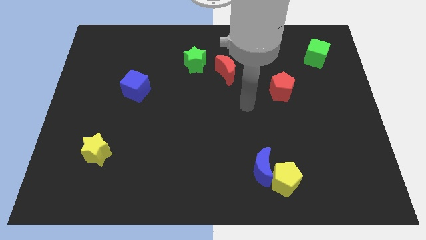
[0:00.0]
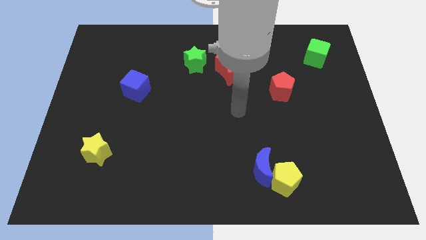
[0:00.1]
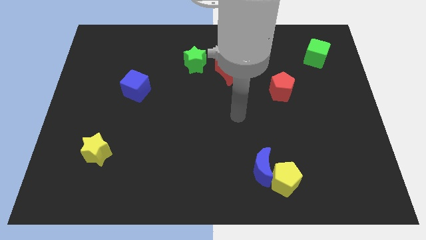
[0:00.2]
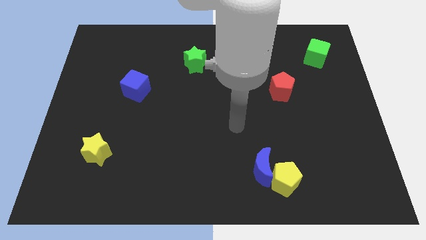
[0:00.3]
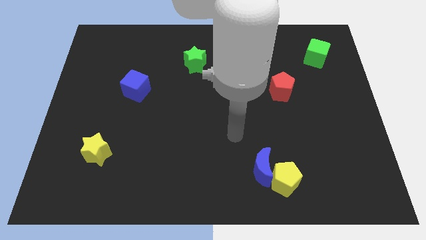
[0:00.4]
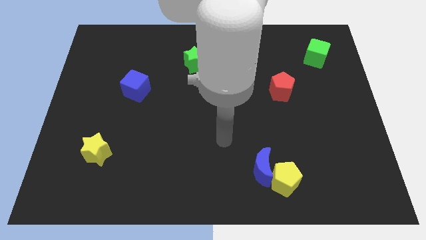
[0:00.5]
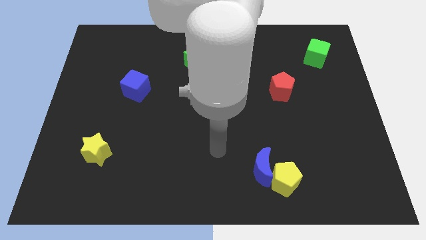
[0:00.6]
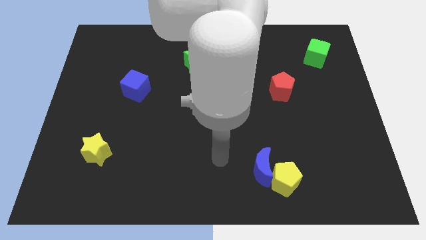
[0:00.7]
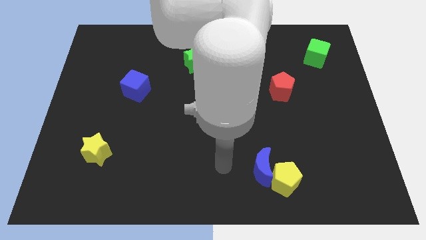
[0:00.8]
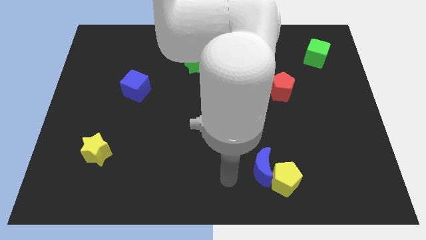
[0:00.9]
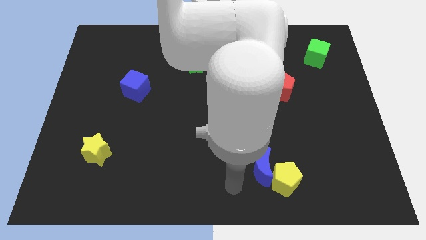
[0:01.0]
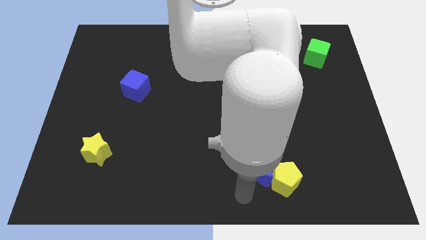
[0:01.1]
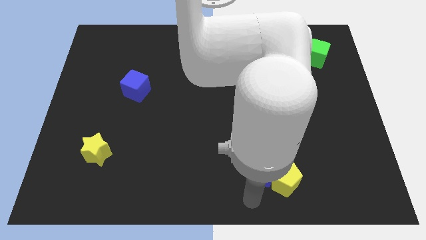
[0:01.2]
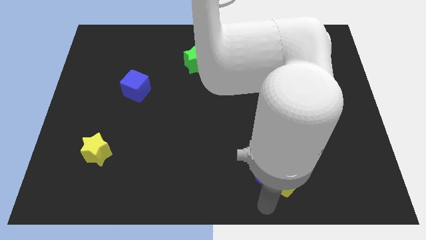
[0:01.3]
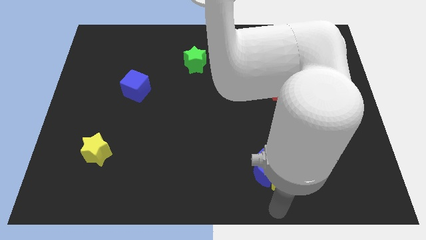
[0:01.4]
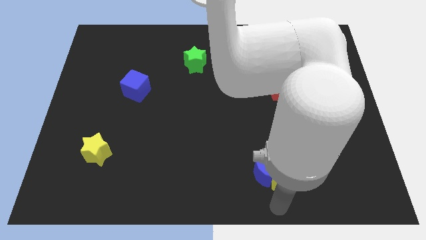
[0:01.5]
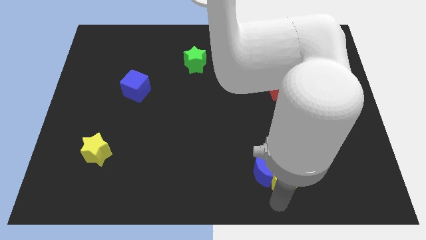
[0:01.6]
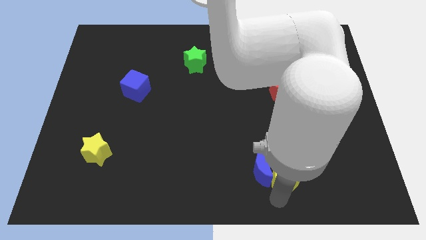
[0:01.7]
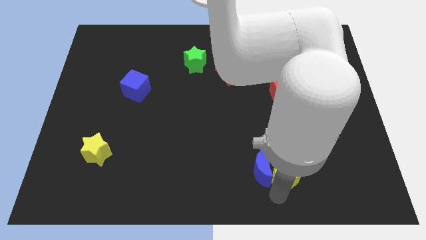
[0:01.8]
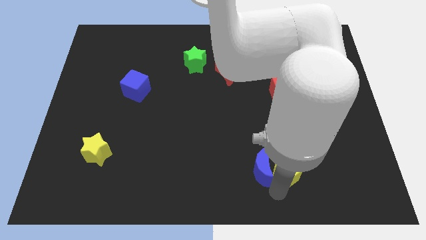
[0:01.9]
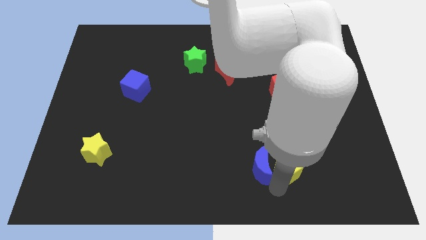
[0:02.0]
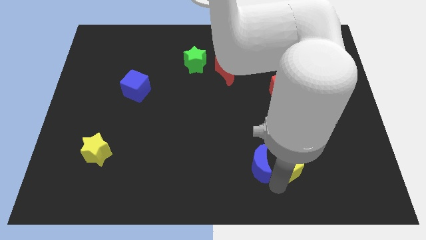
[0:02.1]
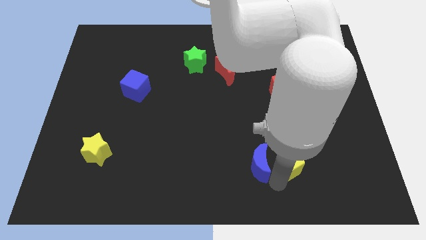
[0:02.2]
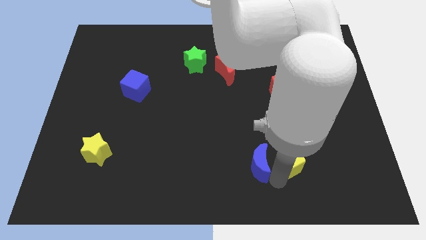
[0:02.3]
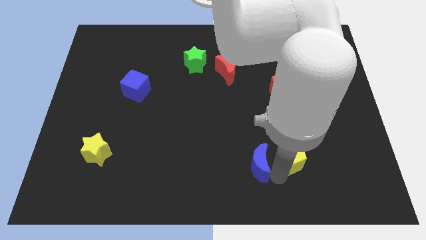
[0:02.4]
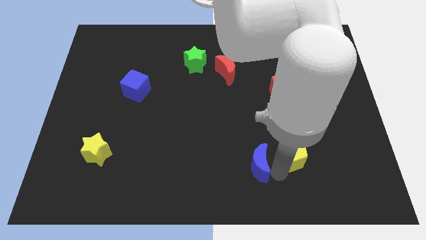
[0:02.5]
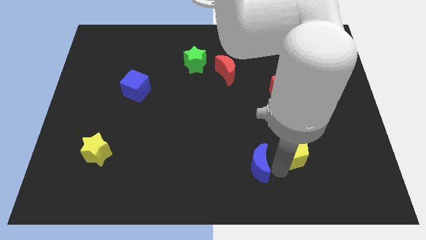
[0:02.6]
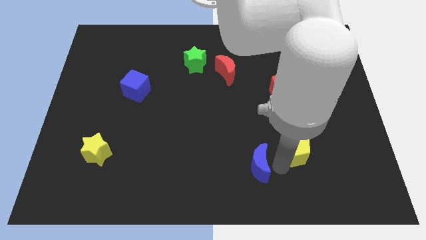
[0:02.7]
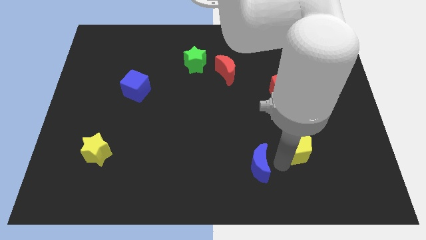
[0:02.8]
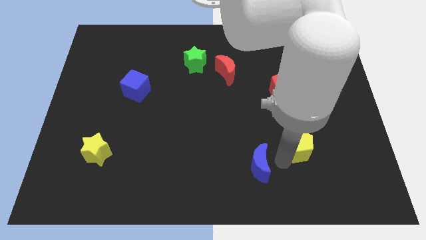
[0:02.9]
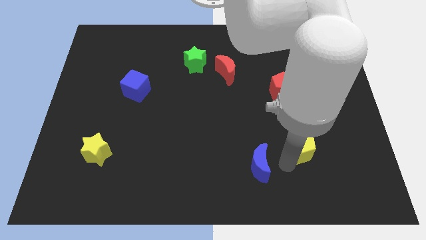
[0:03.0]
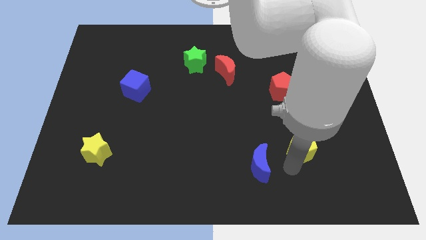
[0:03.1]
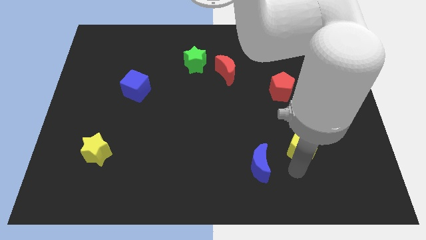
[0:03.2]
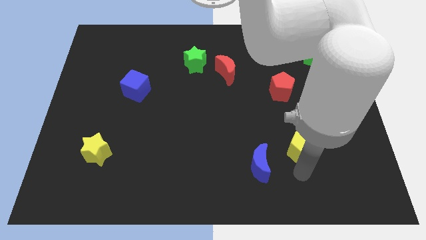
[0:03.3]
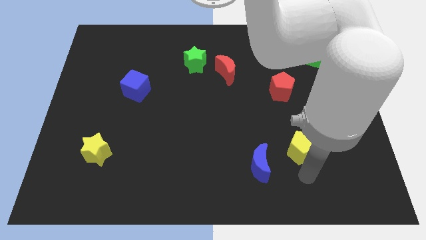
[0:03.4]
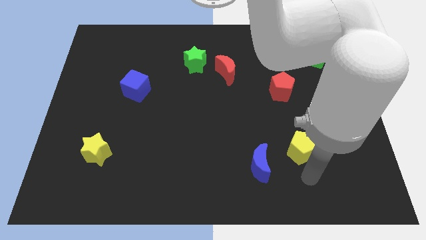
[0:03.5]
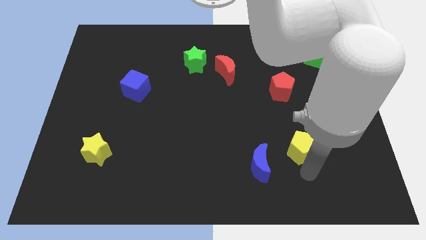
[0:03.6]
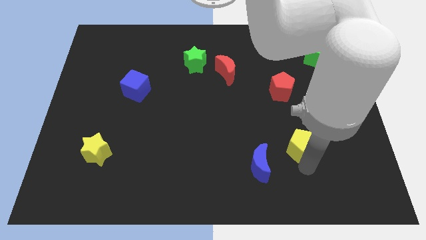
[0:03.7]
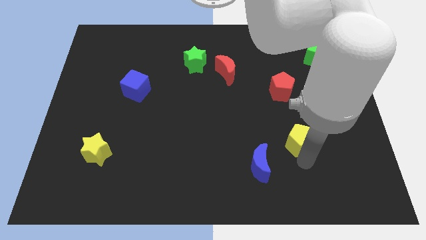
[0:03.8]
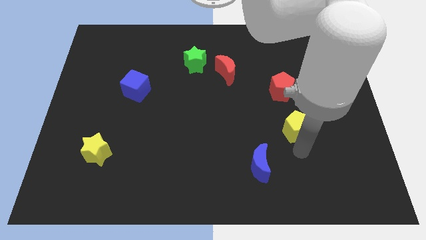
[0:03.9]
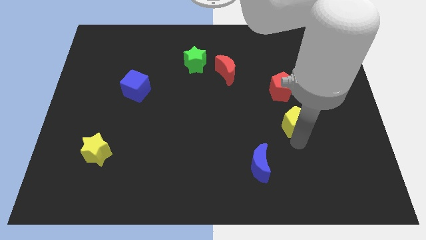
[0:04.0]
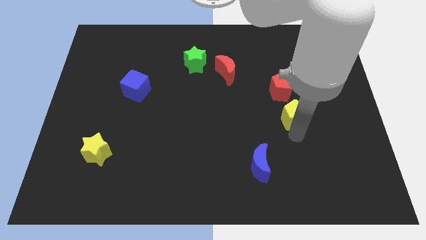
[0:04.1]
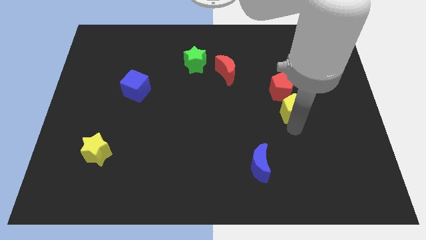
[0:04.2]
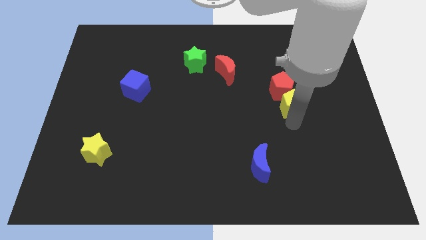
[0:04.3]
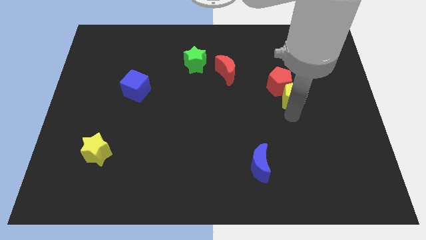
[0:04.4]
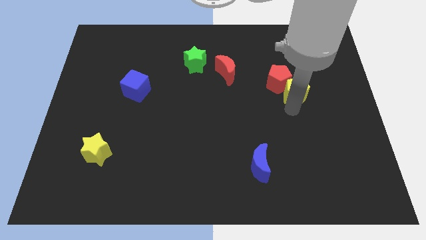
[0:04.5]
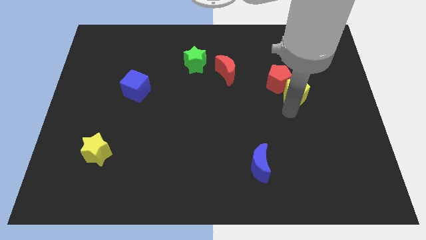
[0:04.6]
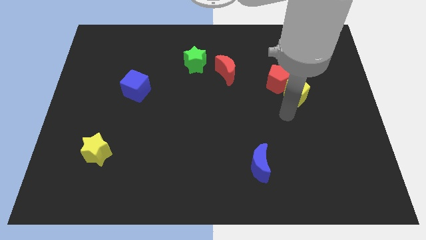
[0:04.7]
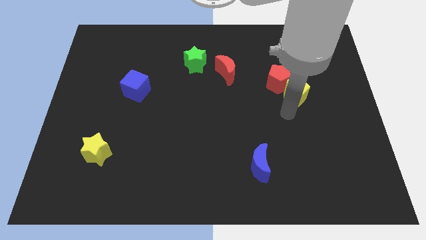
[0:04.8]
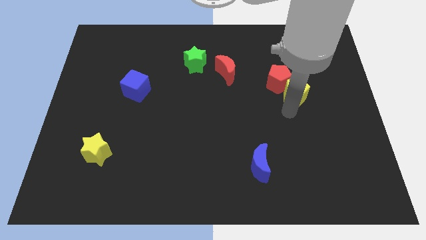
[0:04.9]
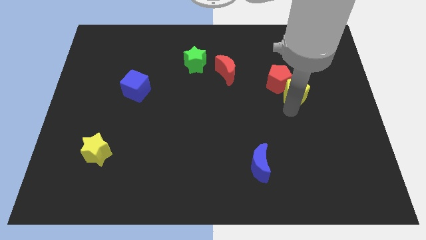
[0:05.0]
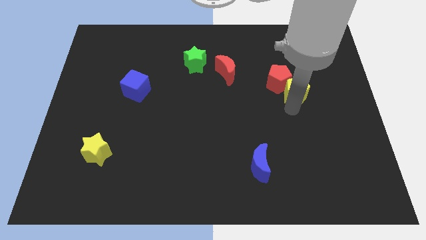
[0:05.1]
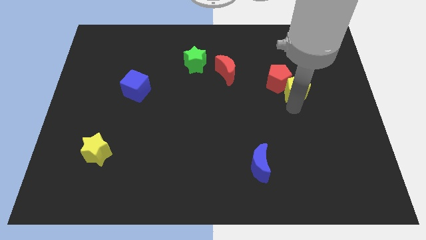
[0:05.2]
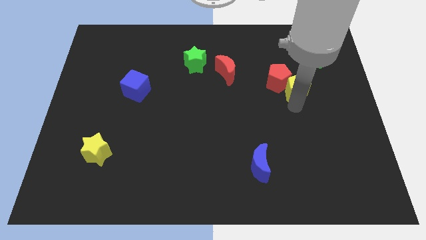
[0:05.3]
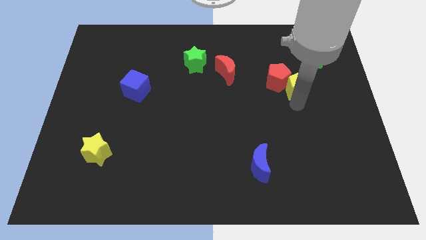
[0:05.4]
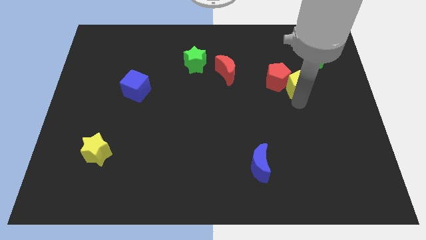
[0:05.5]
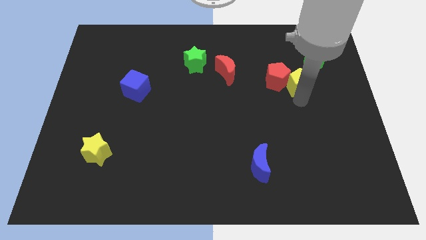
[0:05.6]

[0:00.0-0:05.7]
push the yellow pentagon diagonally down and to the left of the green cube

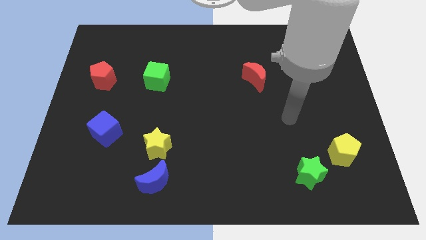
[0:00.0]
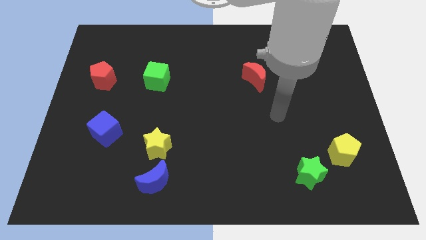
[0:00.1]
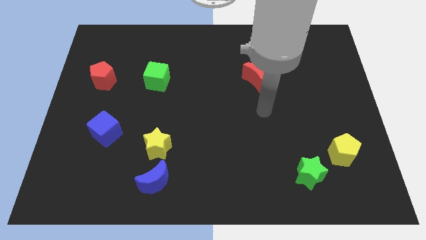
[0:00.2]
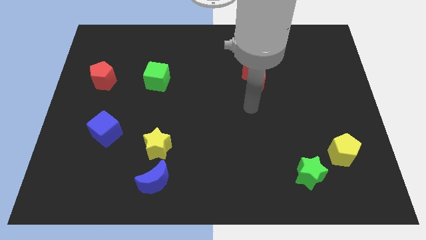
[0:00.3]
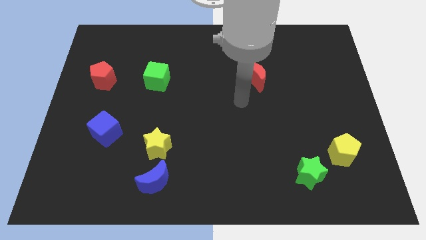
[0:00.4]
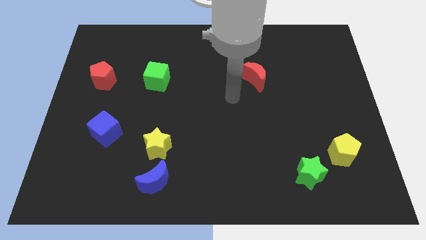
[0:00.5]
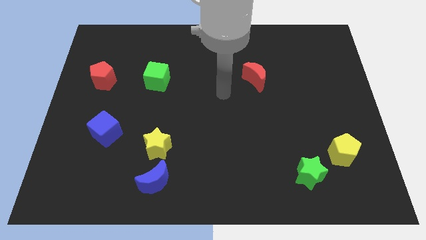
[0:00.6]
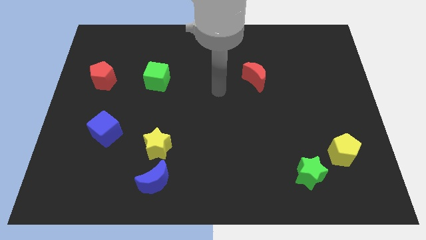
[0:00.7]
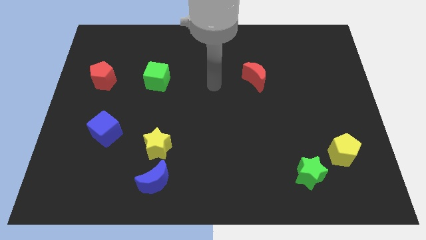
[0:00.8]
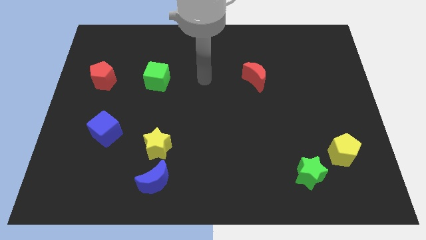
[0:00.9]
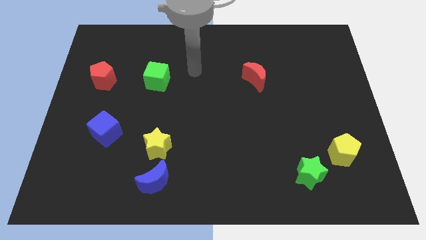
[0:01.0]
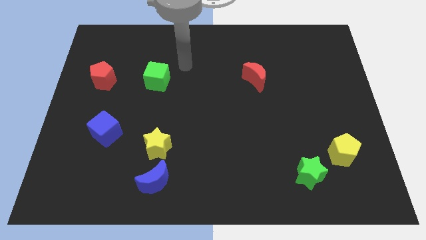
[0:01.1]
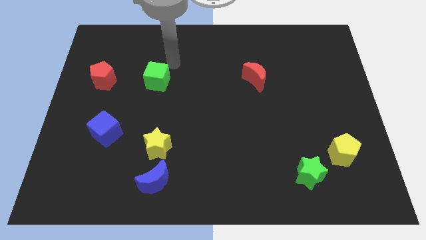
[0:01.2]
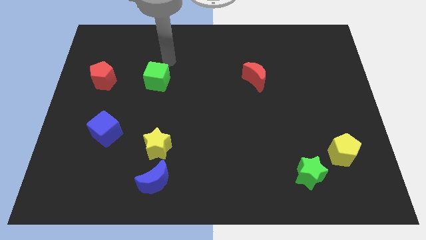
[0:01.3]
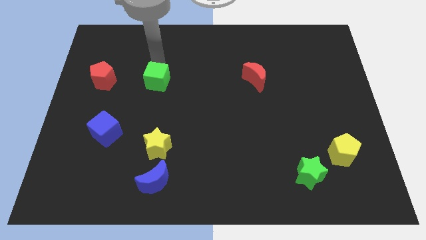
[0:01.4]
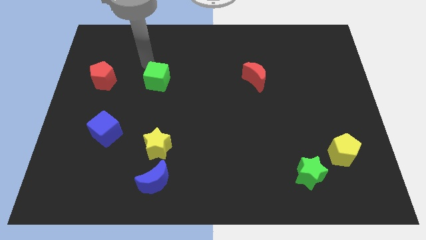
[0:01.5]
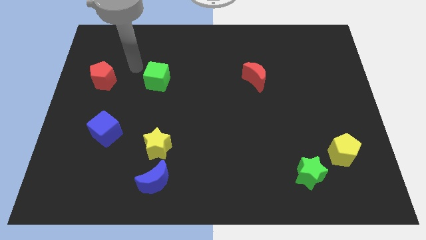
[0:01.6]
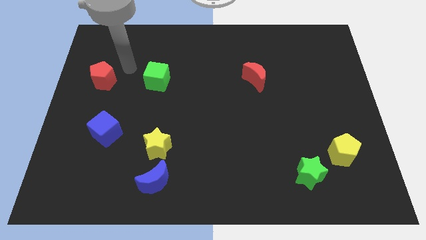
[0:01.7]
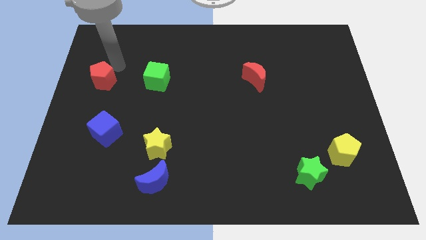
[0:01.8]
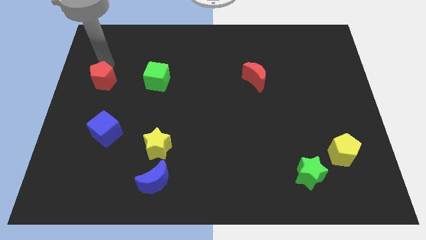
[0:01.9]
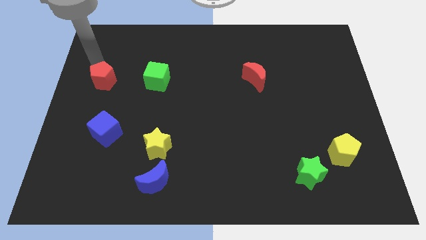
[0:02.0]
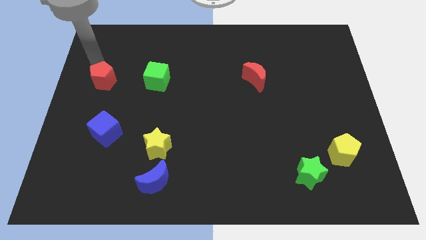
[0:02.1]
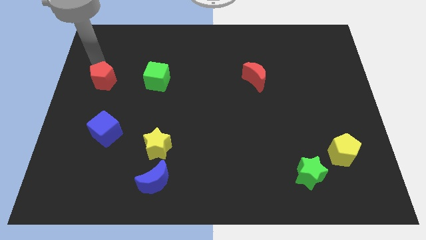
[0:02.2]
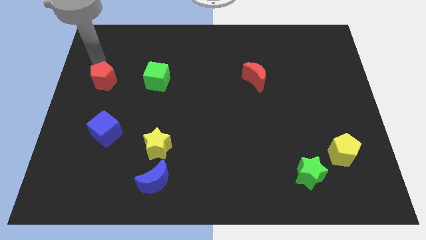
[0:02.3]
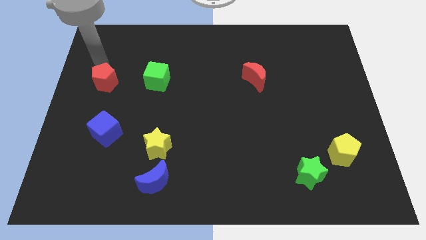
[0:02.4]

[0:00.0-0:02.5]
slide the red pentagon to the top of the blue cube
